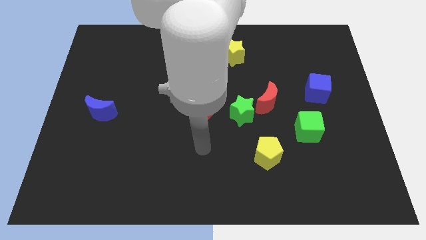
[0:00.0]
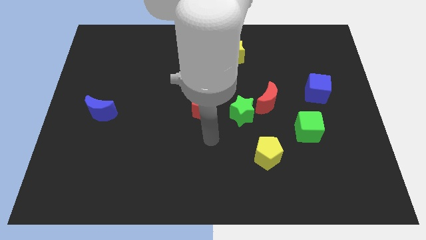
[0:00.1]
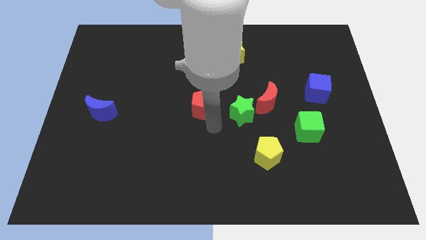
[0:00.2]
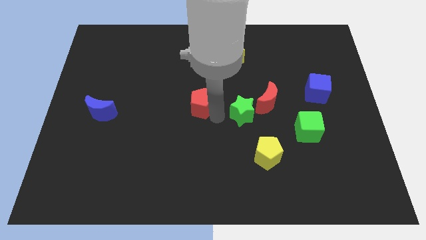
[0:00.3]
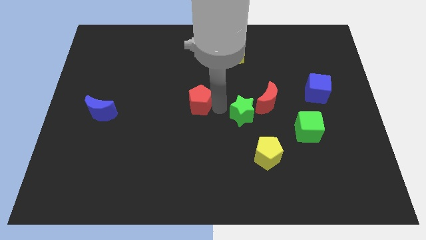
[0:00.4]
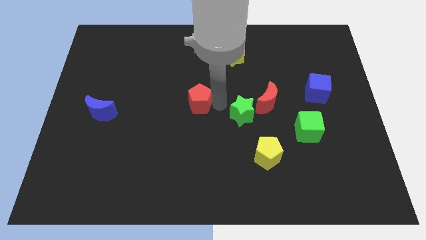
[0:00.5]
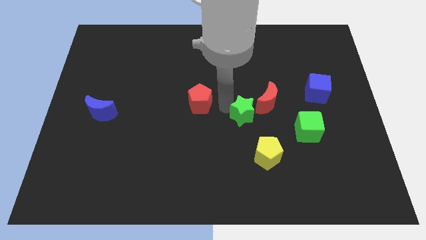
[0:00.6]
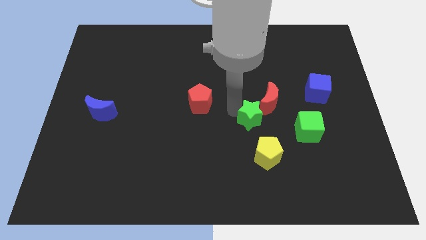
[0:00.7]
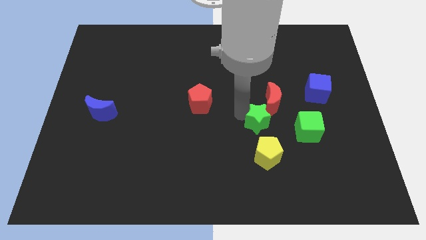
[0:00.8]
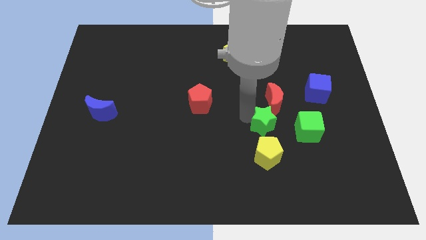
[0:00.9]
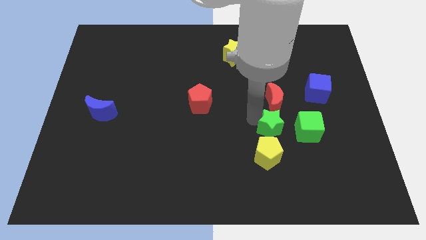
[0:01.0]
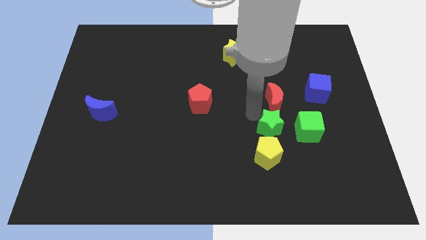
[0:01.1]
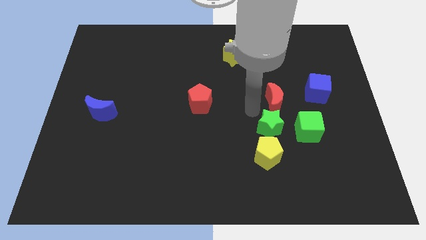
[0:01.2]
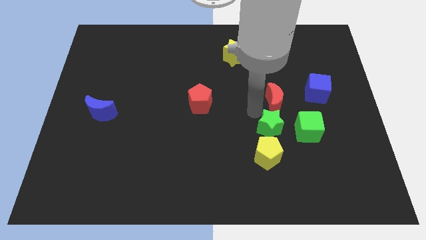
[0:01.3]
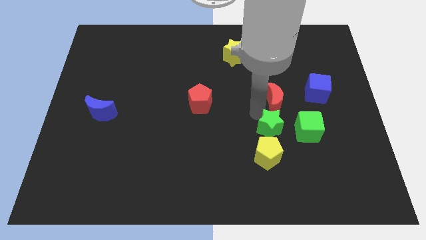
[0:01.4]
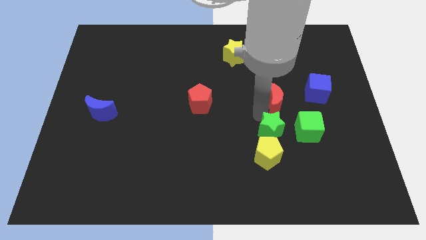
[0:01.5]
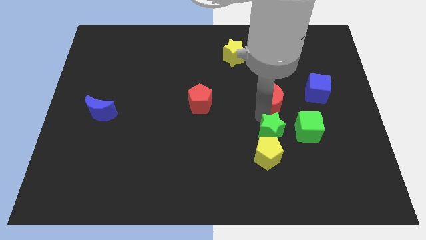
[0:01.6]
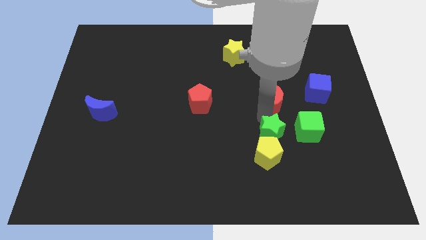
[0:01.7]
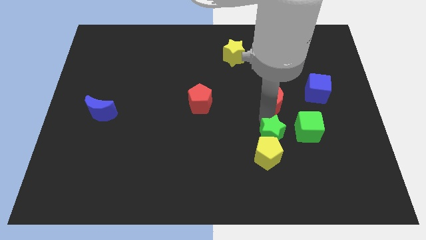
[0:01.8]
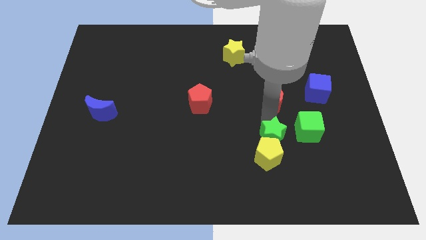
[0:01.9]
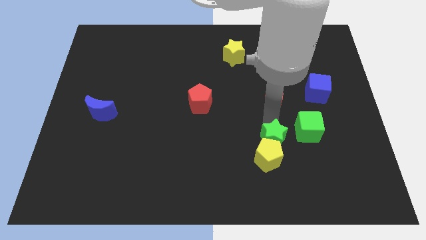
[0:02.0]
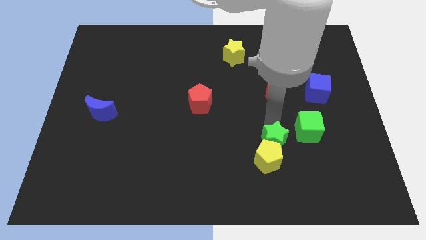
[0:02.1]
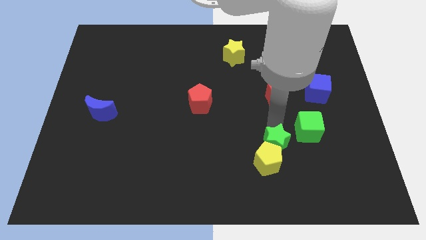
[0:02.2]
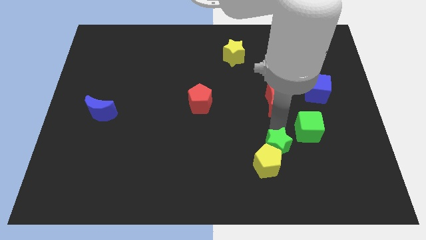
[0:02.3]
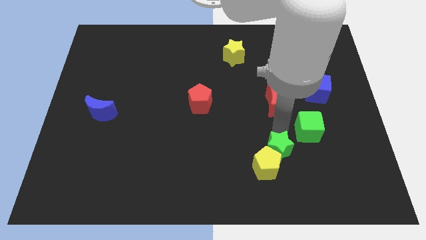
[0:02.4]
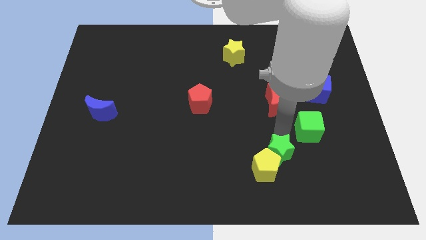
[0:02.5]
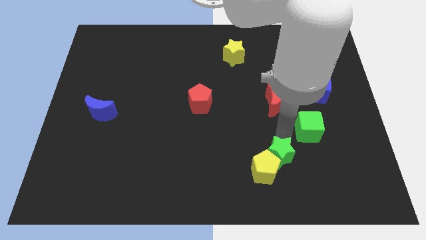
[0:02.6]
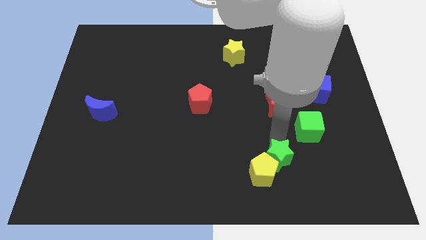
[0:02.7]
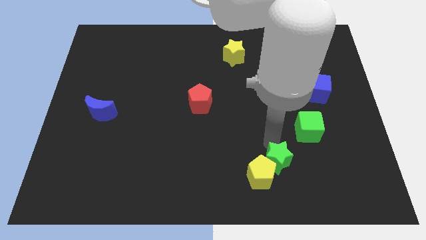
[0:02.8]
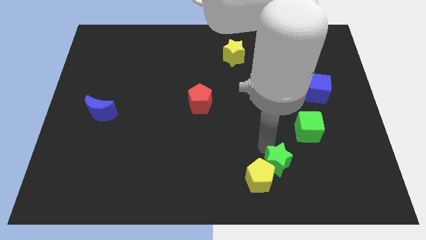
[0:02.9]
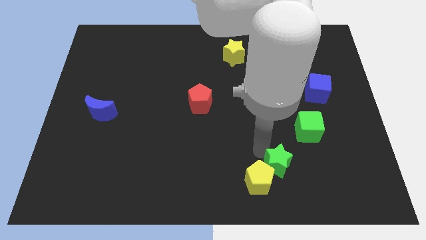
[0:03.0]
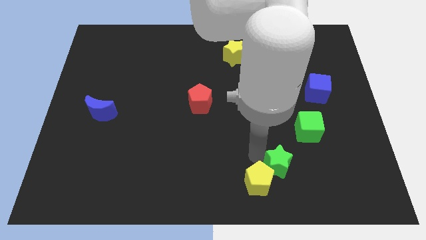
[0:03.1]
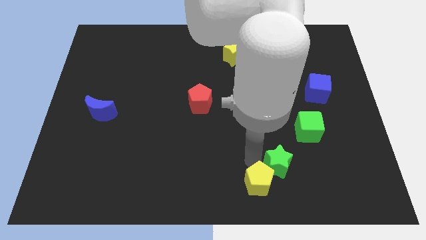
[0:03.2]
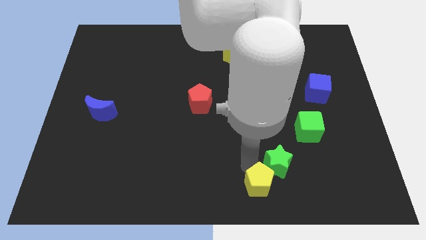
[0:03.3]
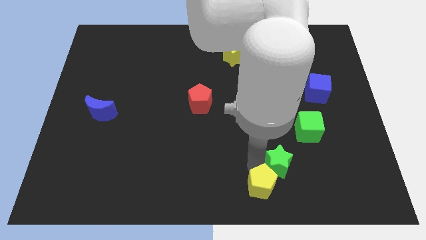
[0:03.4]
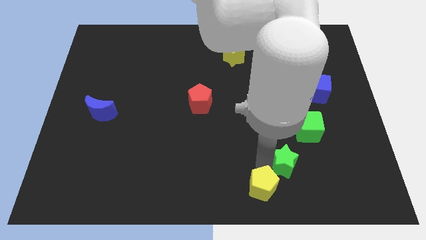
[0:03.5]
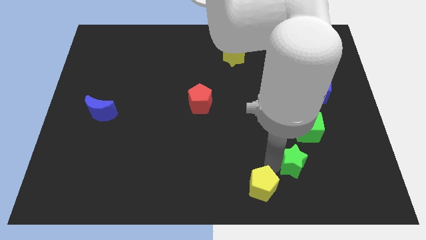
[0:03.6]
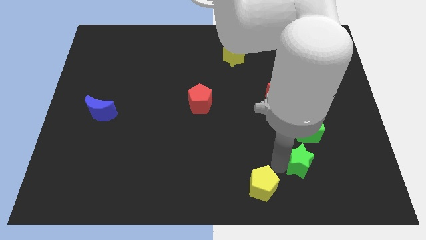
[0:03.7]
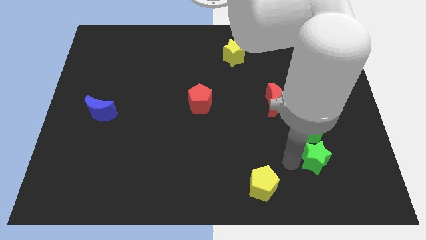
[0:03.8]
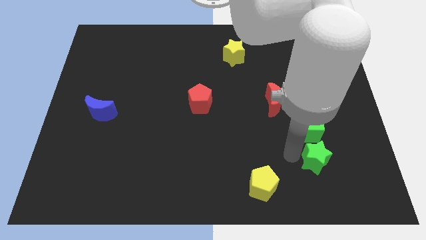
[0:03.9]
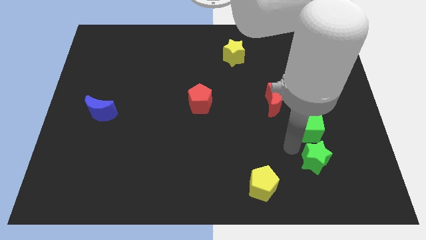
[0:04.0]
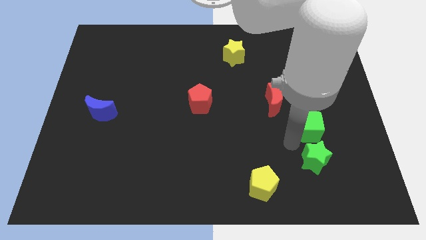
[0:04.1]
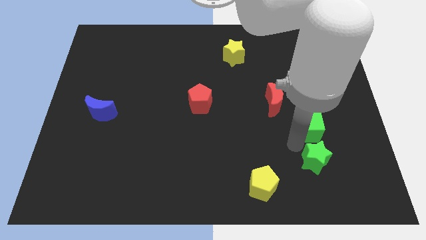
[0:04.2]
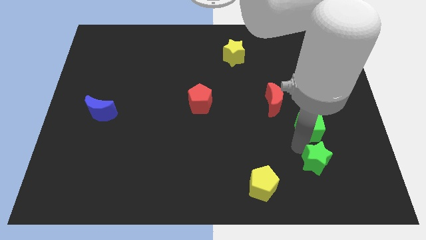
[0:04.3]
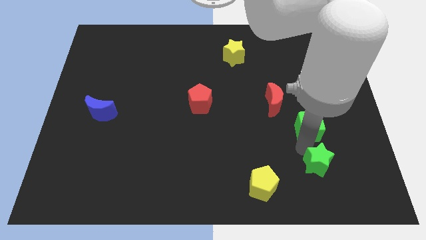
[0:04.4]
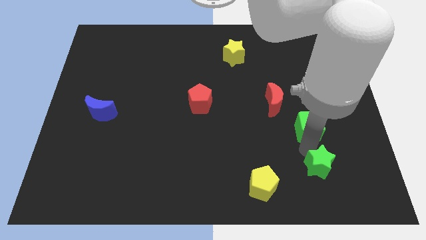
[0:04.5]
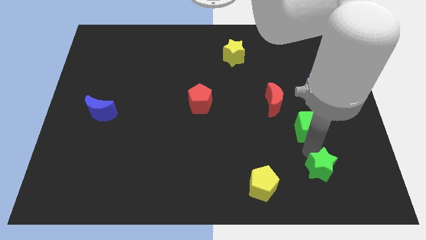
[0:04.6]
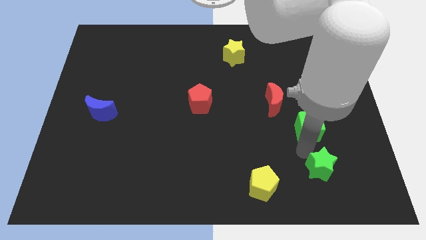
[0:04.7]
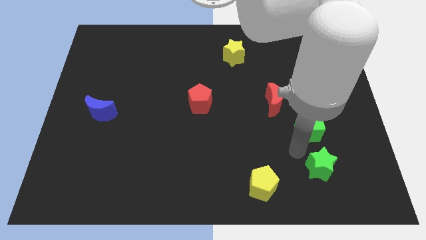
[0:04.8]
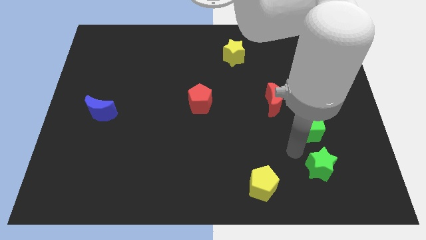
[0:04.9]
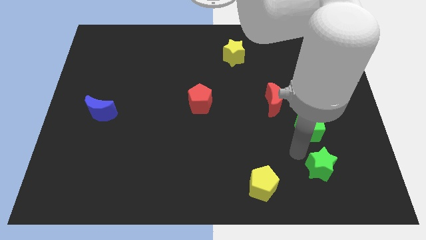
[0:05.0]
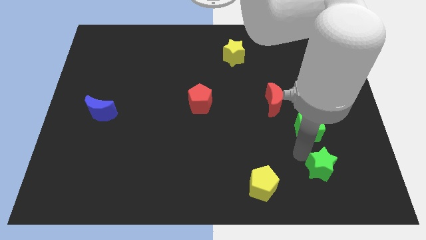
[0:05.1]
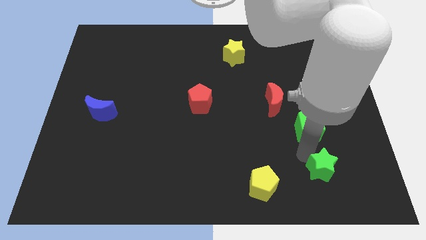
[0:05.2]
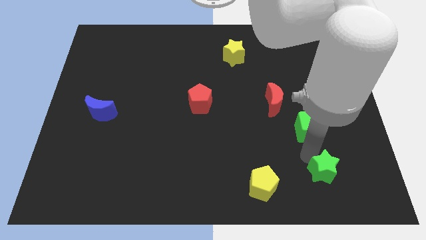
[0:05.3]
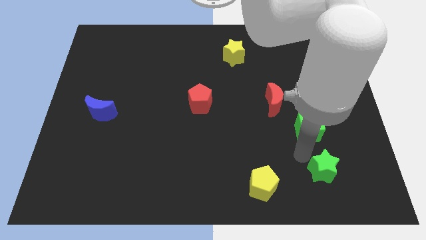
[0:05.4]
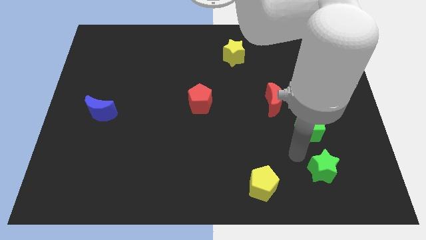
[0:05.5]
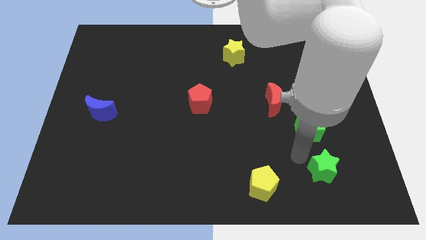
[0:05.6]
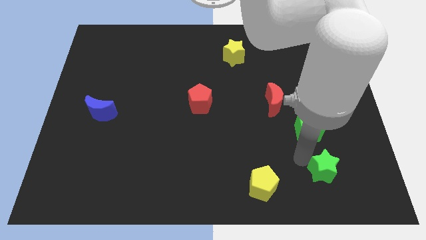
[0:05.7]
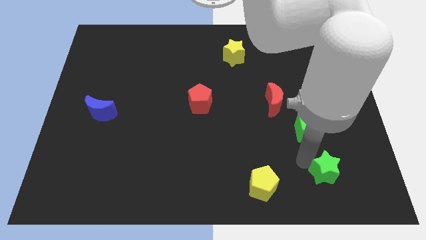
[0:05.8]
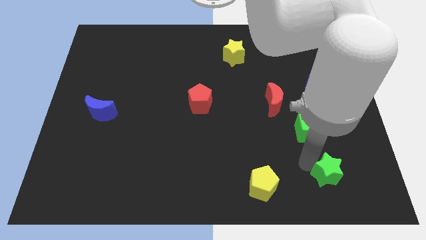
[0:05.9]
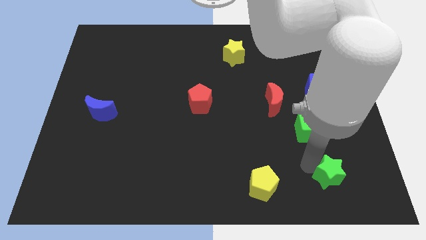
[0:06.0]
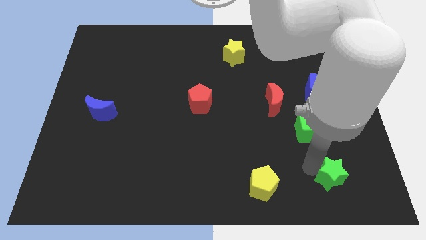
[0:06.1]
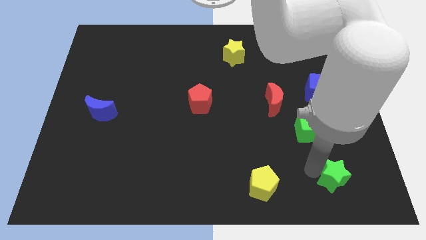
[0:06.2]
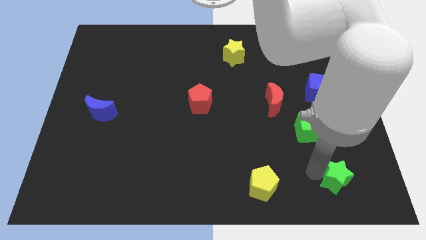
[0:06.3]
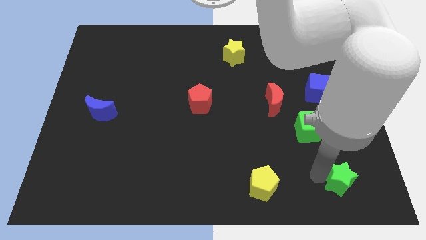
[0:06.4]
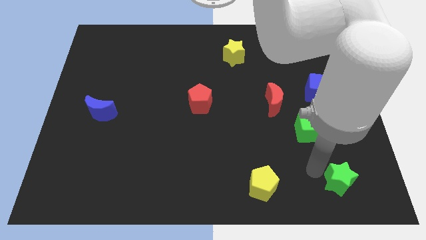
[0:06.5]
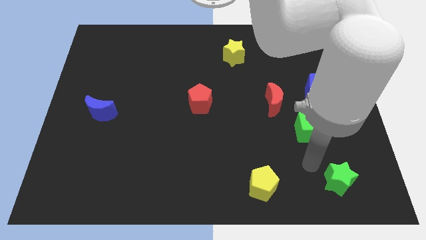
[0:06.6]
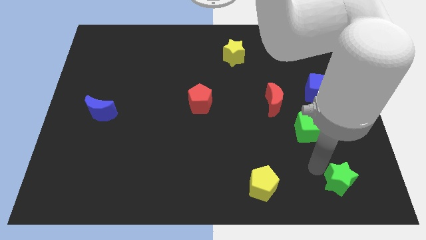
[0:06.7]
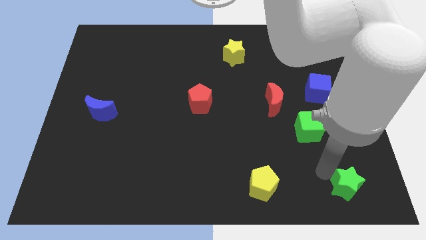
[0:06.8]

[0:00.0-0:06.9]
put the green star to the bottom right of the board

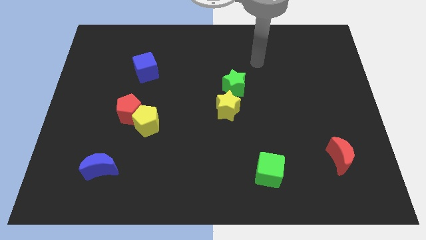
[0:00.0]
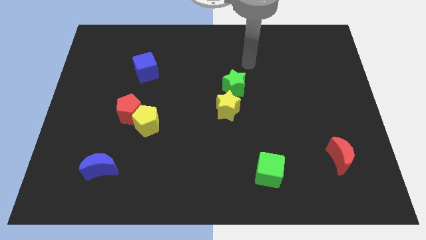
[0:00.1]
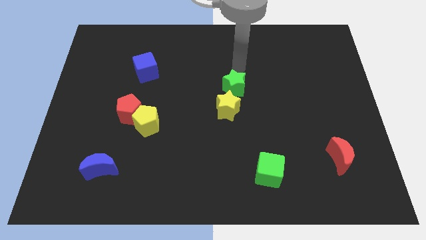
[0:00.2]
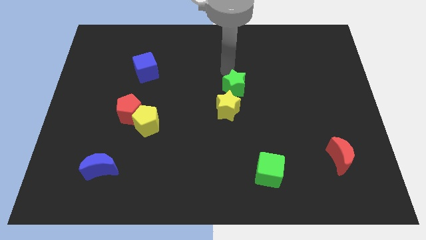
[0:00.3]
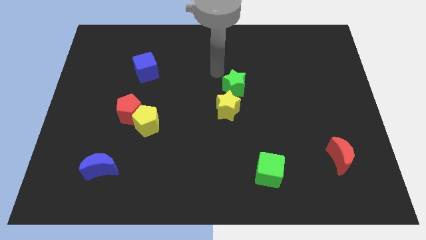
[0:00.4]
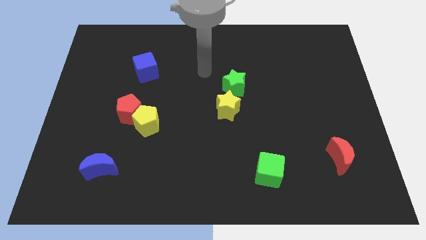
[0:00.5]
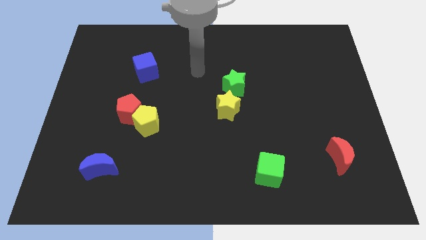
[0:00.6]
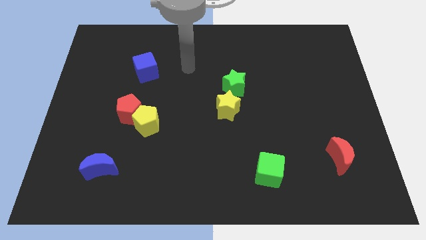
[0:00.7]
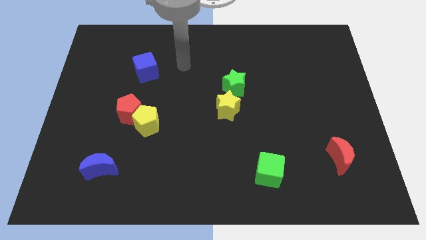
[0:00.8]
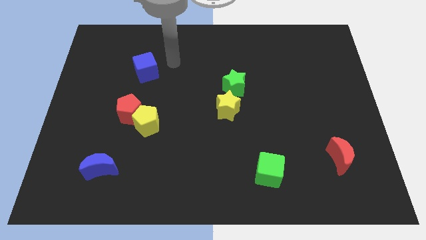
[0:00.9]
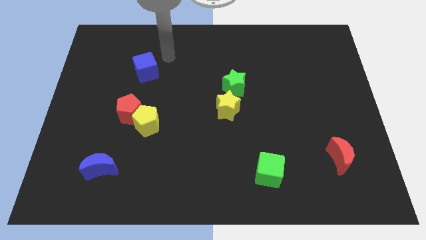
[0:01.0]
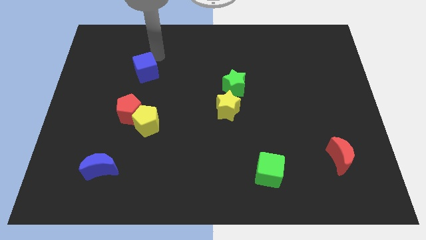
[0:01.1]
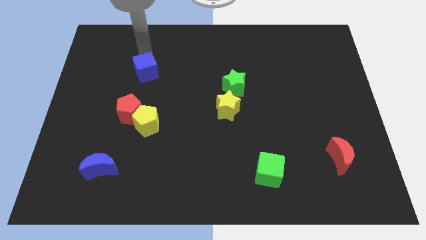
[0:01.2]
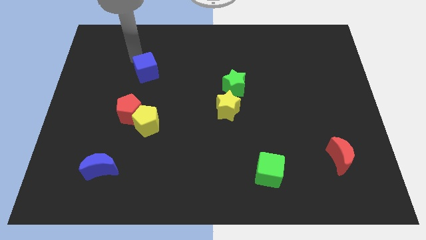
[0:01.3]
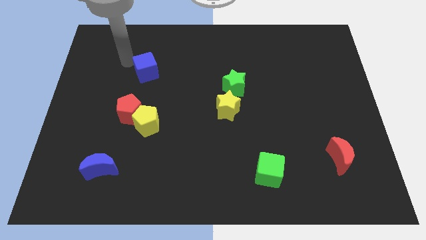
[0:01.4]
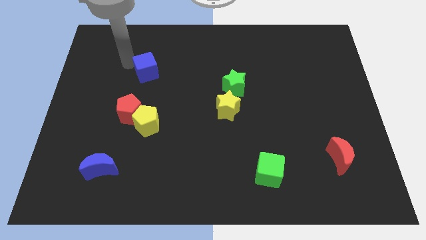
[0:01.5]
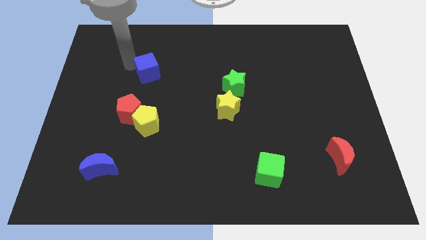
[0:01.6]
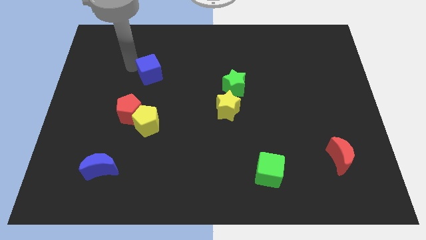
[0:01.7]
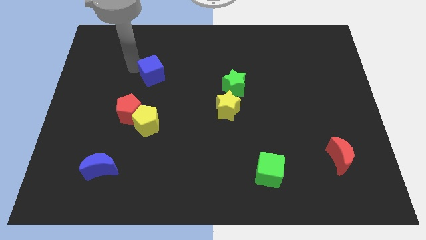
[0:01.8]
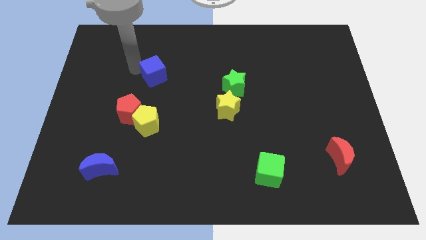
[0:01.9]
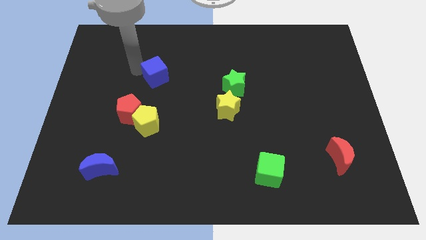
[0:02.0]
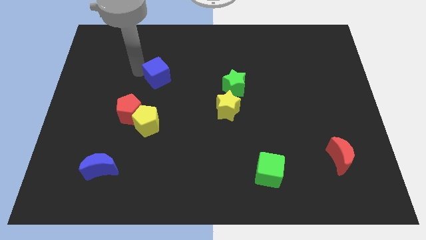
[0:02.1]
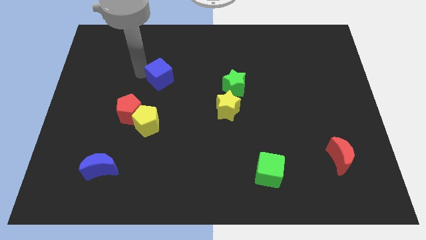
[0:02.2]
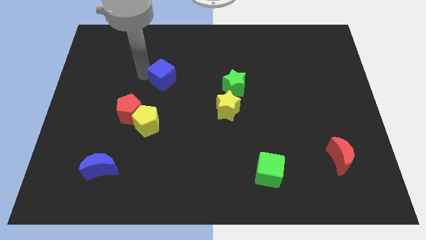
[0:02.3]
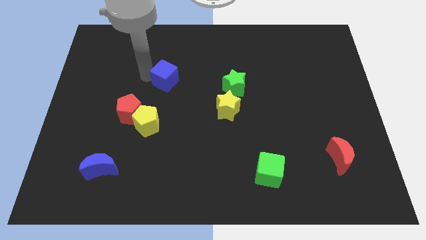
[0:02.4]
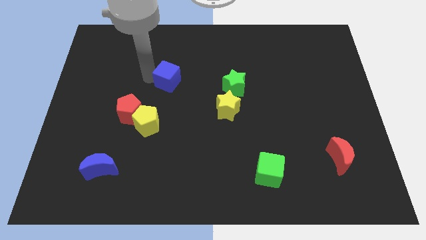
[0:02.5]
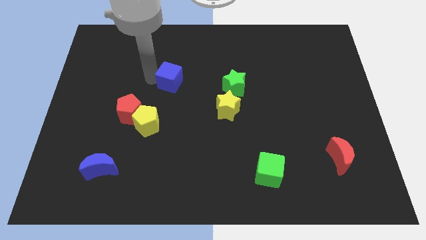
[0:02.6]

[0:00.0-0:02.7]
put the blue cube to the center
